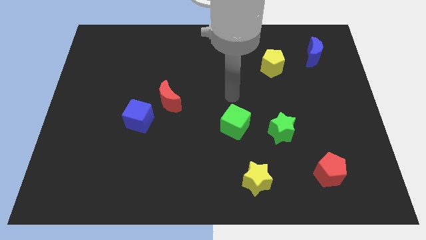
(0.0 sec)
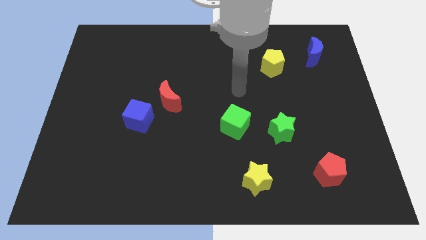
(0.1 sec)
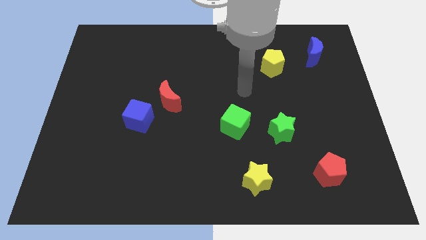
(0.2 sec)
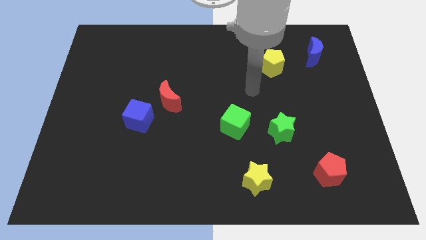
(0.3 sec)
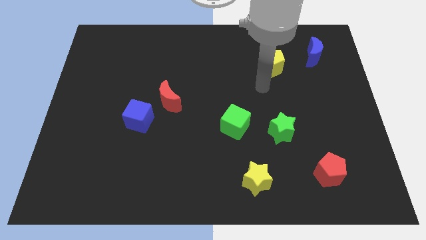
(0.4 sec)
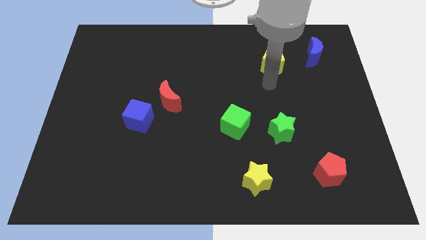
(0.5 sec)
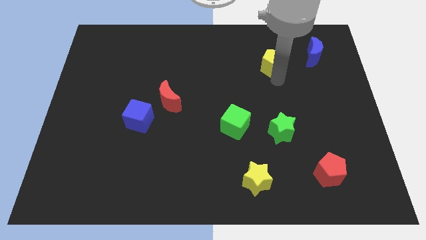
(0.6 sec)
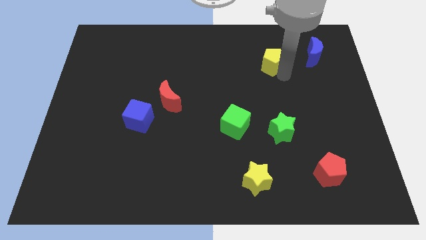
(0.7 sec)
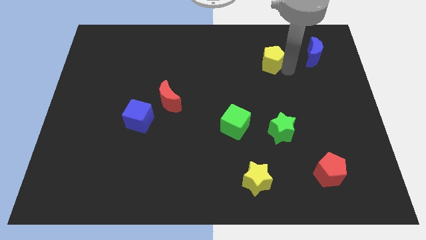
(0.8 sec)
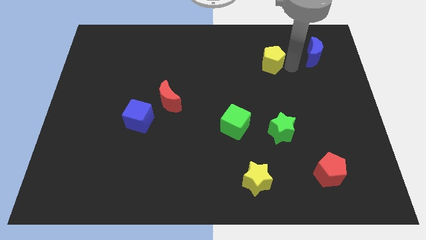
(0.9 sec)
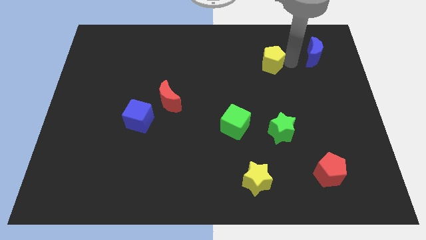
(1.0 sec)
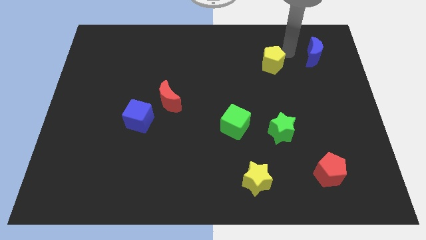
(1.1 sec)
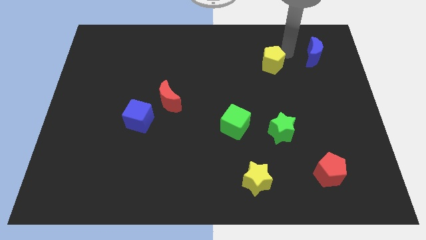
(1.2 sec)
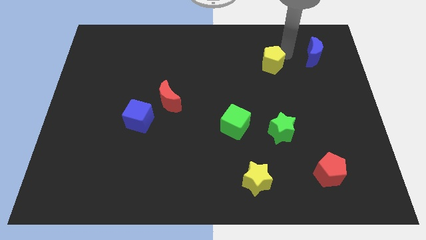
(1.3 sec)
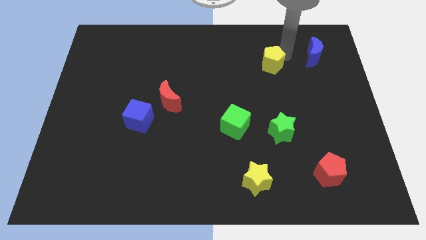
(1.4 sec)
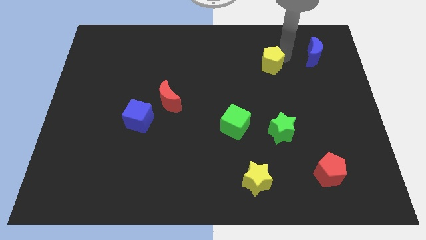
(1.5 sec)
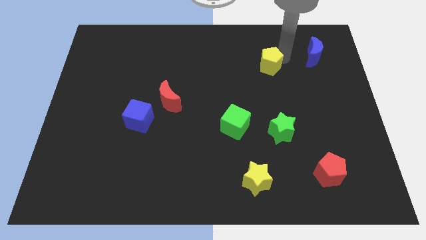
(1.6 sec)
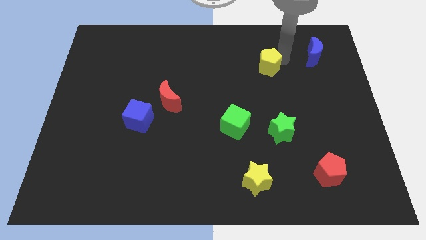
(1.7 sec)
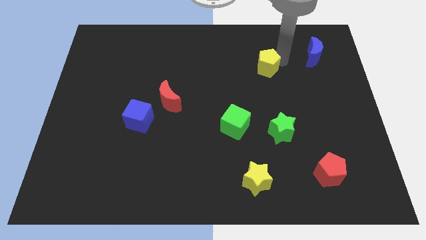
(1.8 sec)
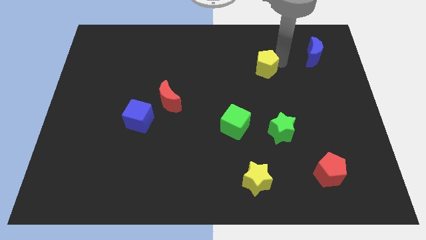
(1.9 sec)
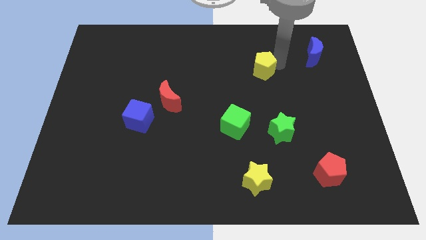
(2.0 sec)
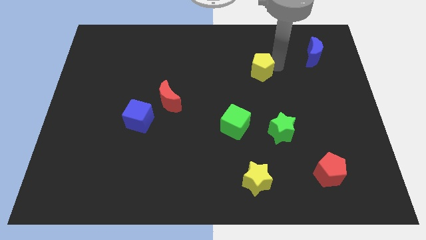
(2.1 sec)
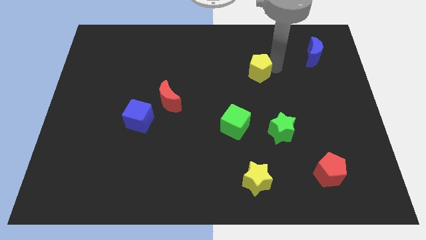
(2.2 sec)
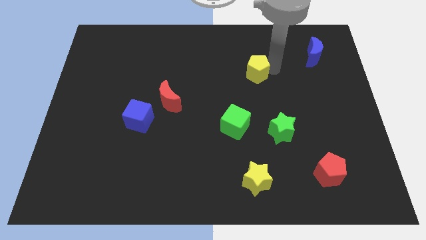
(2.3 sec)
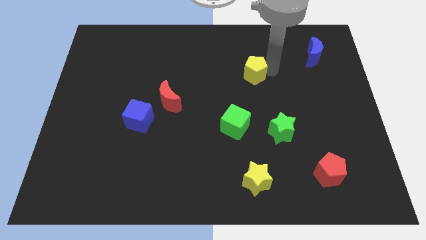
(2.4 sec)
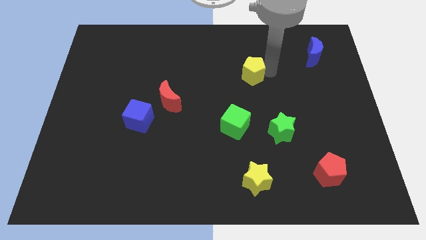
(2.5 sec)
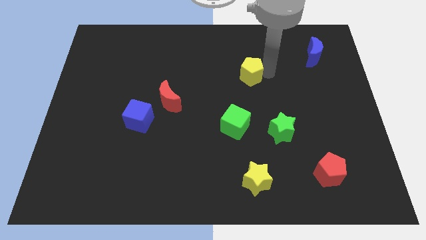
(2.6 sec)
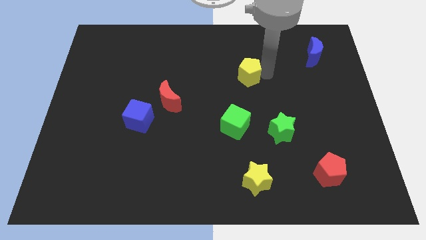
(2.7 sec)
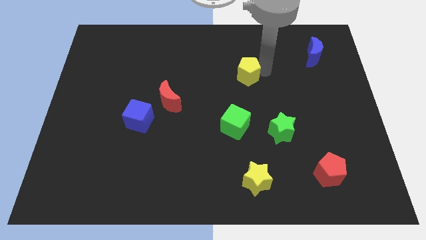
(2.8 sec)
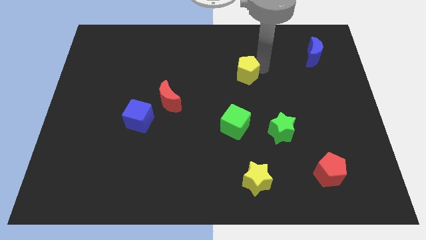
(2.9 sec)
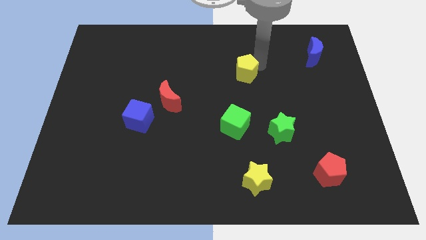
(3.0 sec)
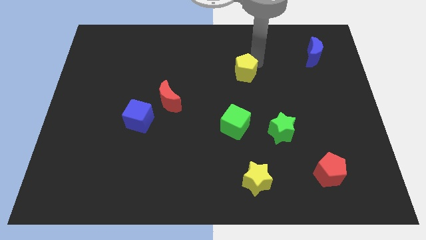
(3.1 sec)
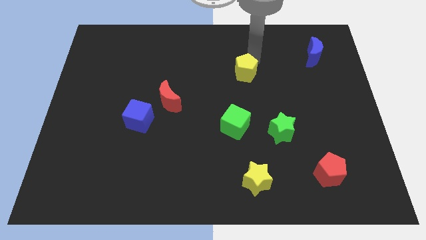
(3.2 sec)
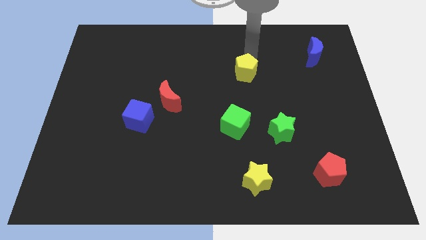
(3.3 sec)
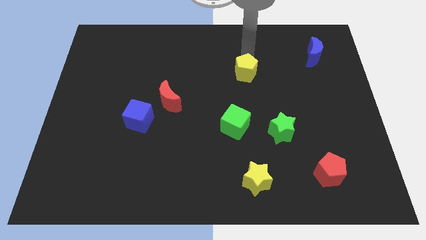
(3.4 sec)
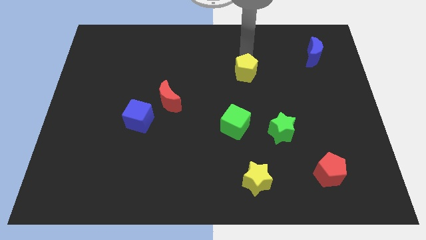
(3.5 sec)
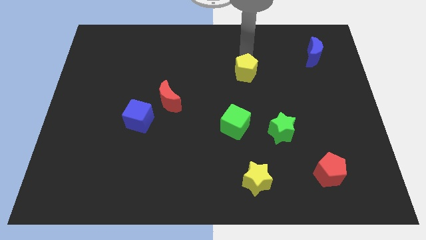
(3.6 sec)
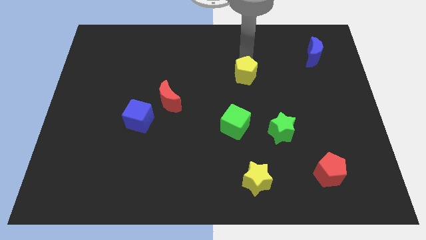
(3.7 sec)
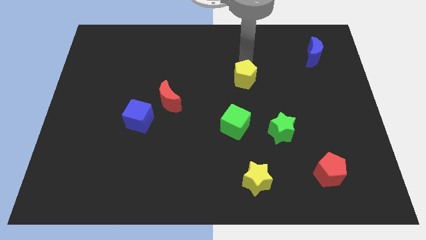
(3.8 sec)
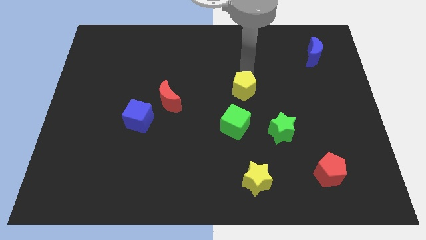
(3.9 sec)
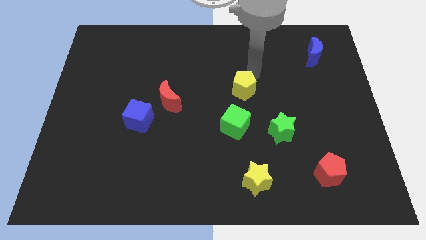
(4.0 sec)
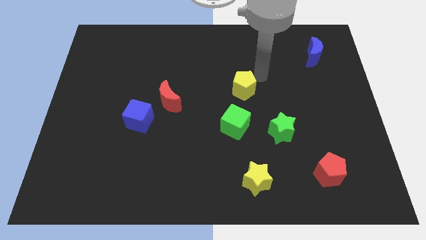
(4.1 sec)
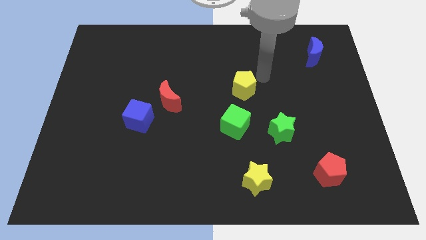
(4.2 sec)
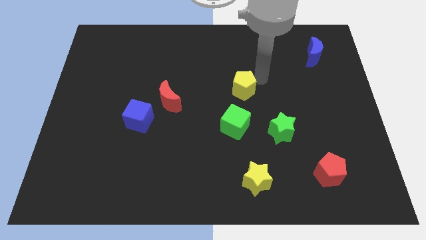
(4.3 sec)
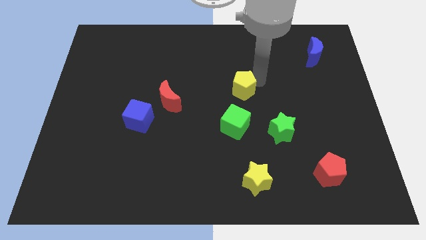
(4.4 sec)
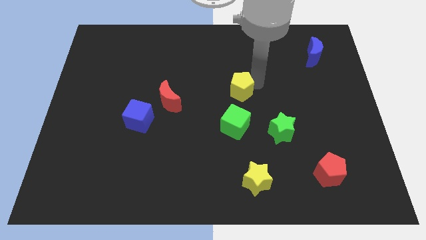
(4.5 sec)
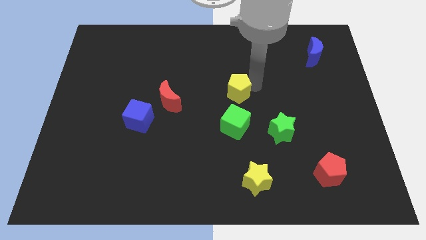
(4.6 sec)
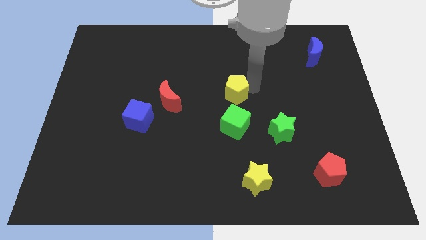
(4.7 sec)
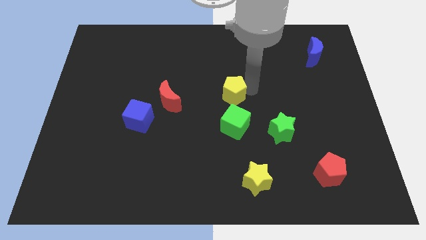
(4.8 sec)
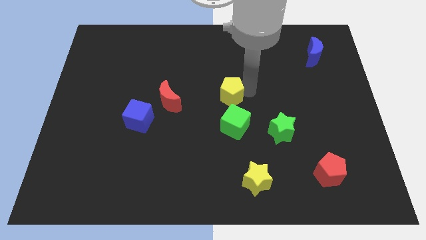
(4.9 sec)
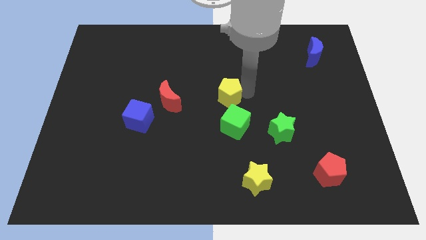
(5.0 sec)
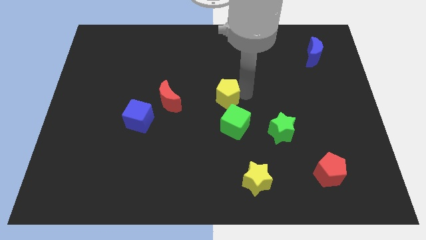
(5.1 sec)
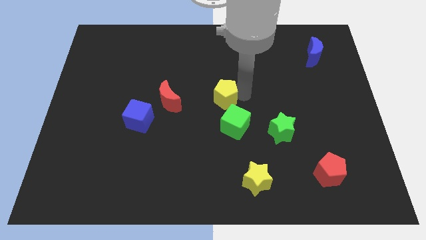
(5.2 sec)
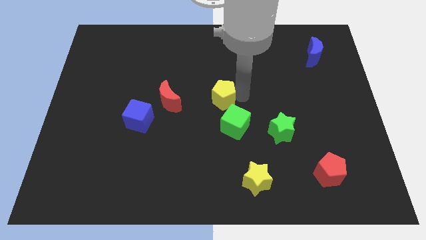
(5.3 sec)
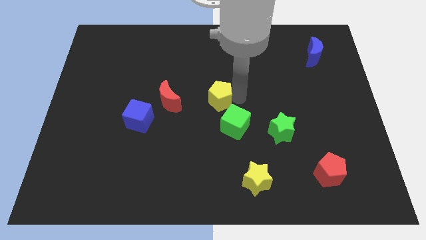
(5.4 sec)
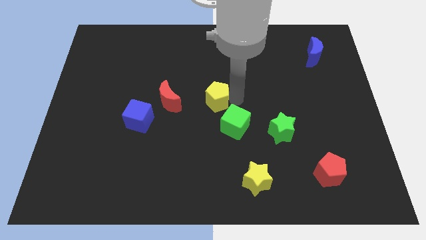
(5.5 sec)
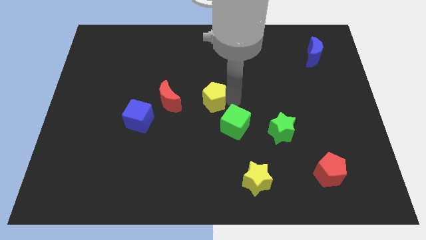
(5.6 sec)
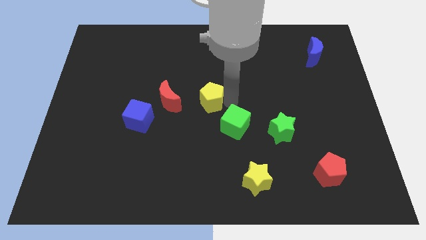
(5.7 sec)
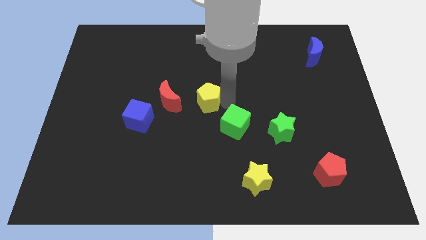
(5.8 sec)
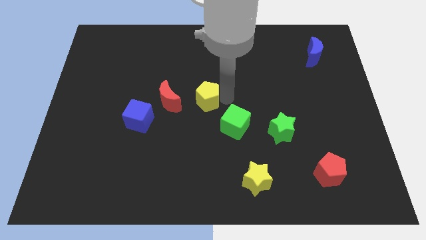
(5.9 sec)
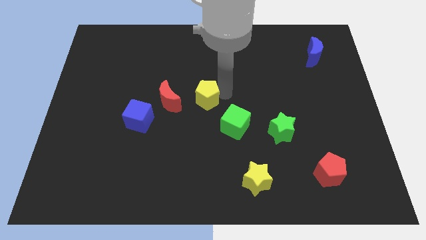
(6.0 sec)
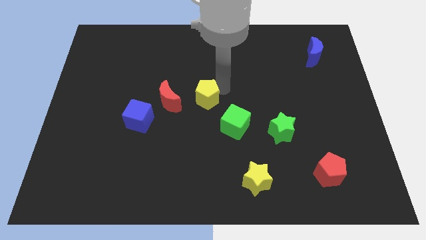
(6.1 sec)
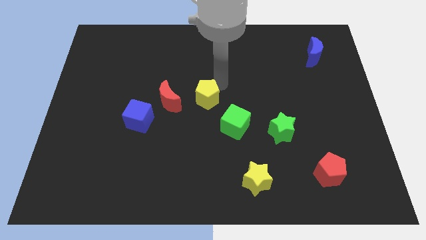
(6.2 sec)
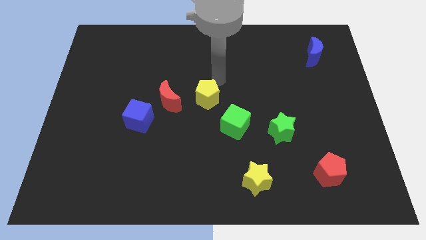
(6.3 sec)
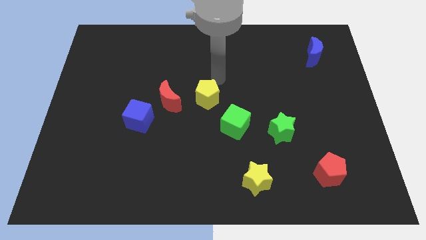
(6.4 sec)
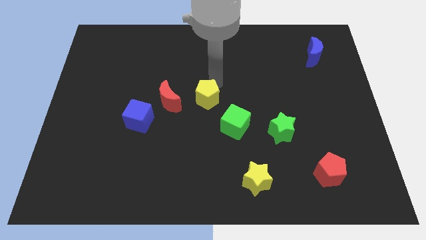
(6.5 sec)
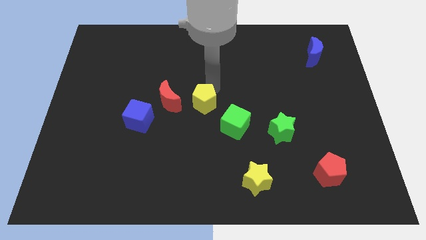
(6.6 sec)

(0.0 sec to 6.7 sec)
move the yellow pentagon downwards and left

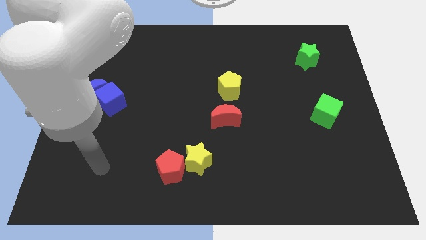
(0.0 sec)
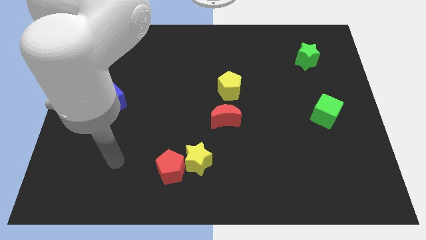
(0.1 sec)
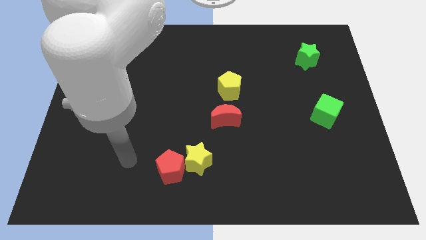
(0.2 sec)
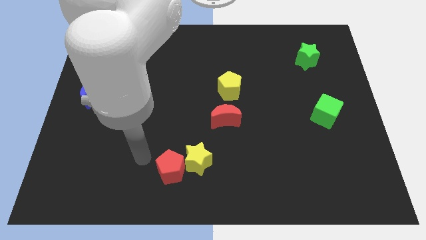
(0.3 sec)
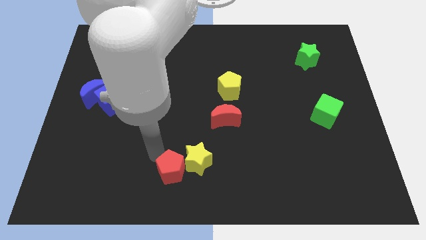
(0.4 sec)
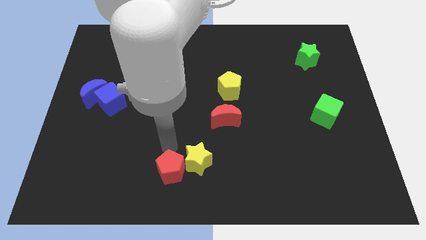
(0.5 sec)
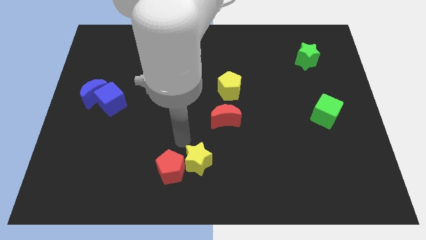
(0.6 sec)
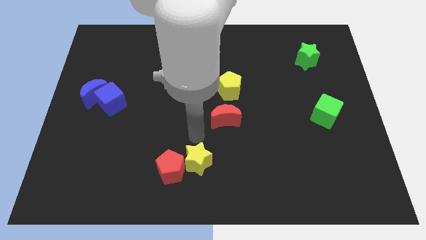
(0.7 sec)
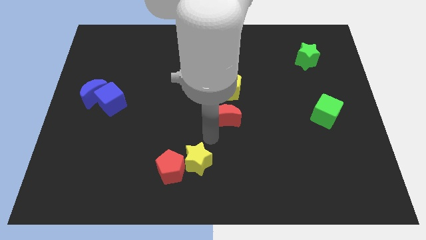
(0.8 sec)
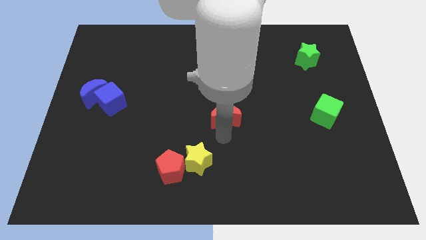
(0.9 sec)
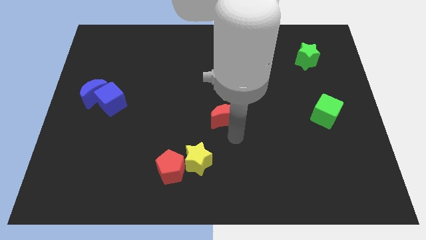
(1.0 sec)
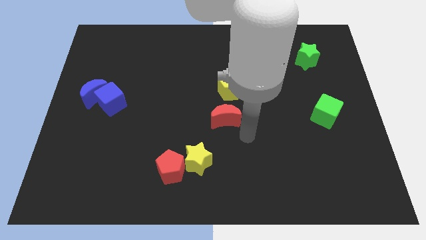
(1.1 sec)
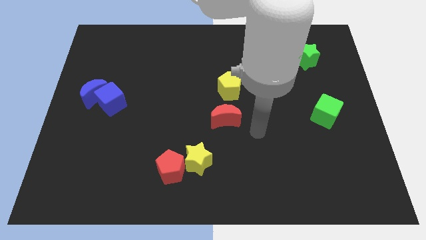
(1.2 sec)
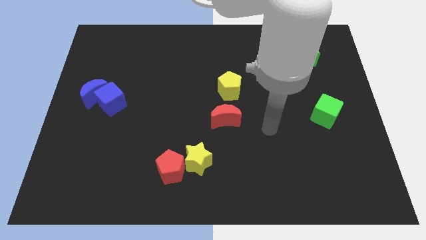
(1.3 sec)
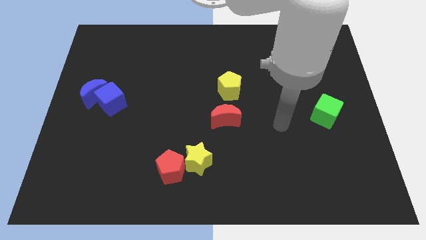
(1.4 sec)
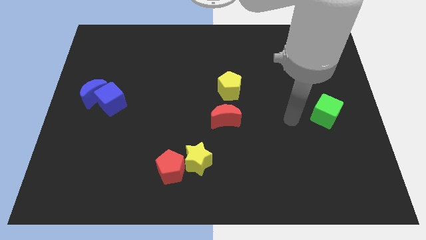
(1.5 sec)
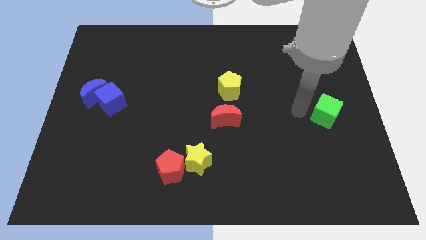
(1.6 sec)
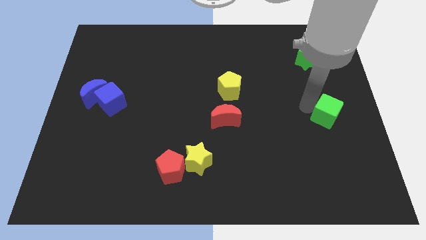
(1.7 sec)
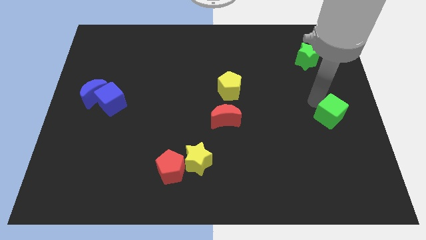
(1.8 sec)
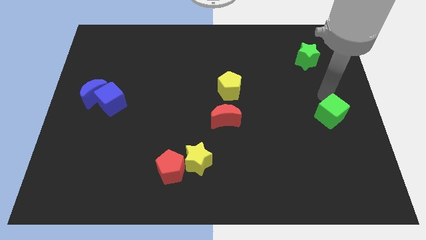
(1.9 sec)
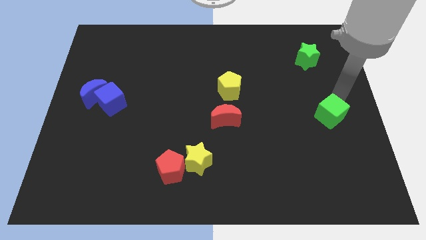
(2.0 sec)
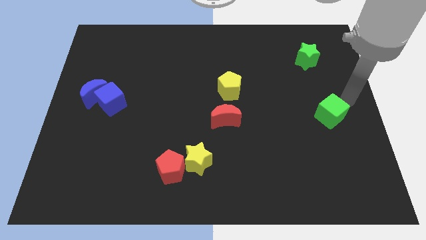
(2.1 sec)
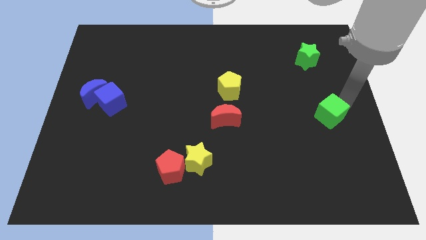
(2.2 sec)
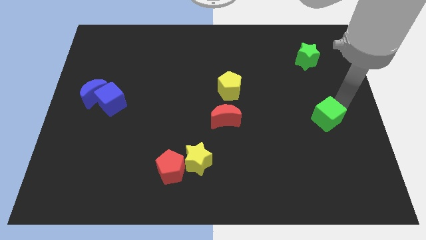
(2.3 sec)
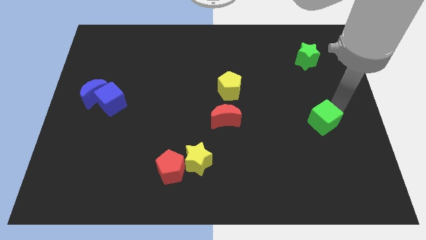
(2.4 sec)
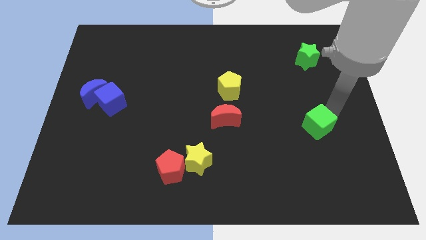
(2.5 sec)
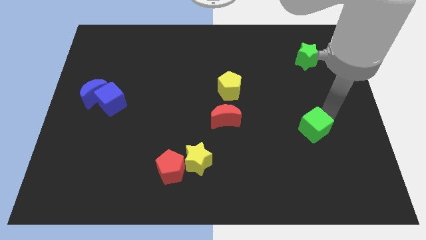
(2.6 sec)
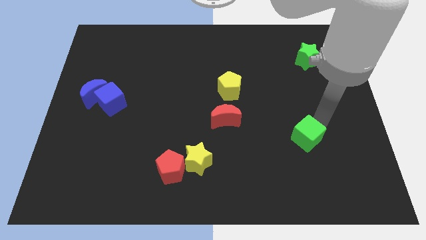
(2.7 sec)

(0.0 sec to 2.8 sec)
push the green cube a little diagonally down and left
